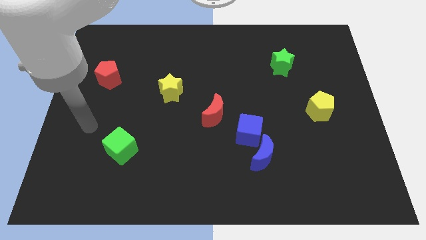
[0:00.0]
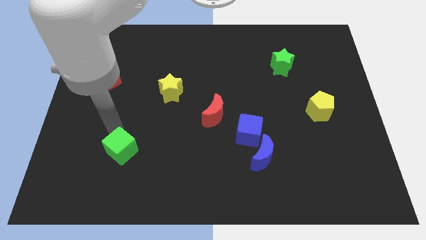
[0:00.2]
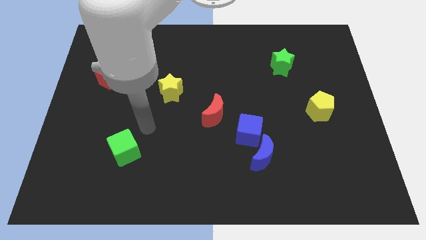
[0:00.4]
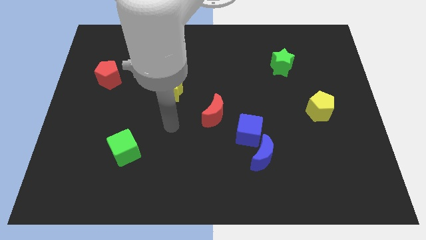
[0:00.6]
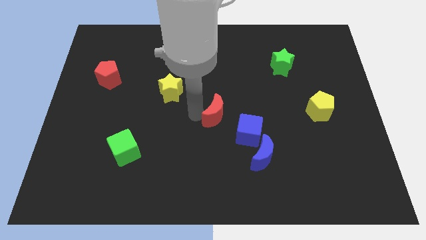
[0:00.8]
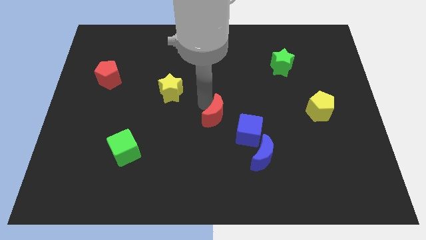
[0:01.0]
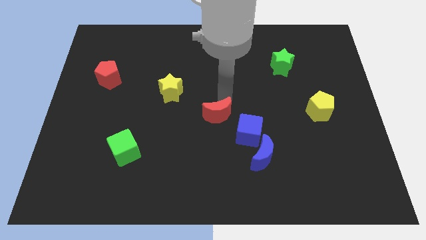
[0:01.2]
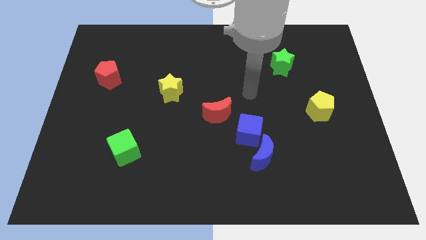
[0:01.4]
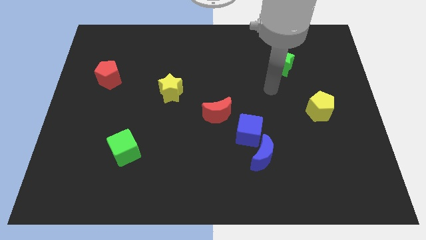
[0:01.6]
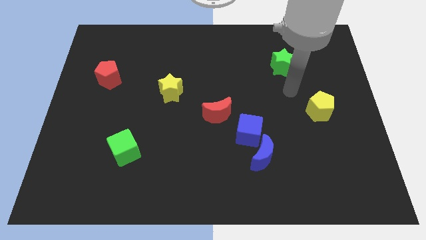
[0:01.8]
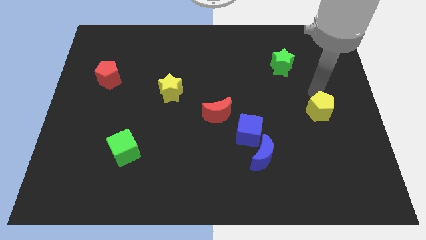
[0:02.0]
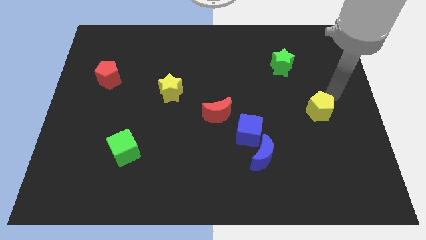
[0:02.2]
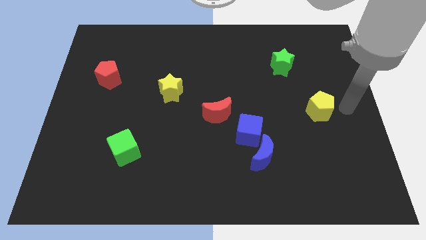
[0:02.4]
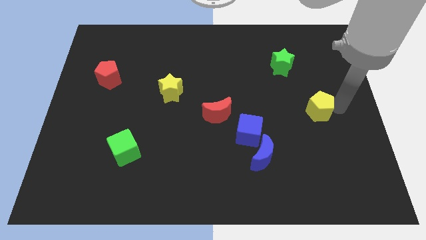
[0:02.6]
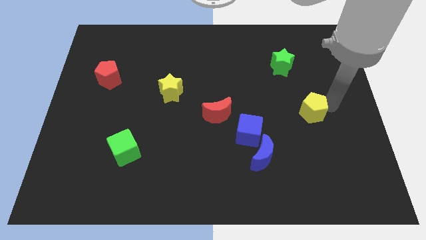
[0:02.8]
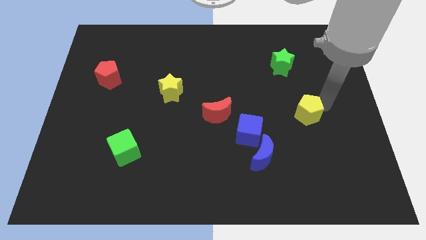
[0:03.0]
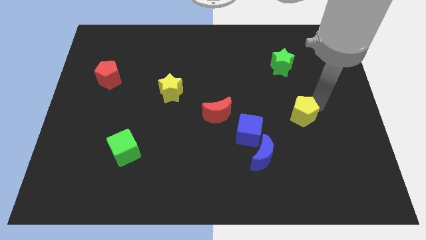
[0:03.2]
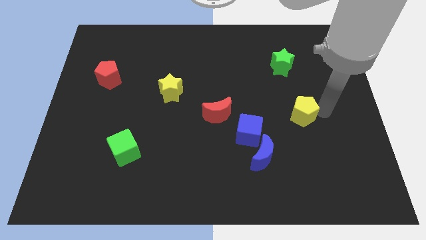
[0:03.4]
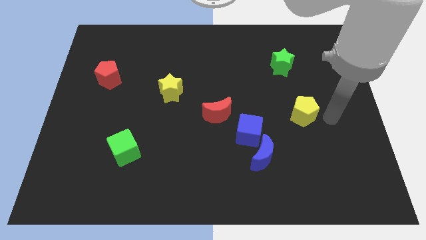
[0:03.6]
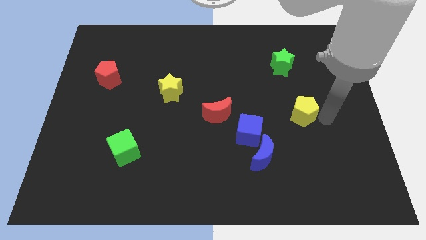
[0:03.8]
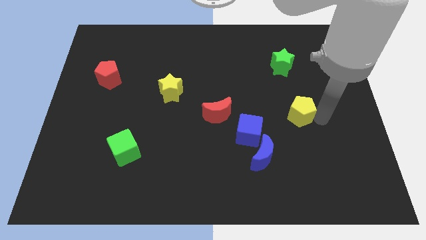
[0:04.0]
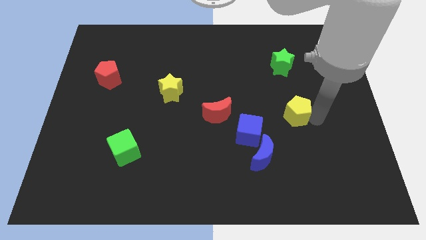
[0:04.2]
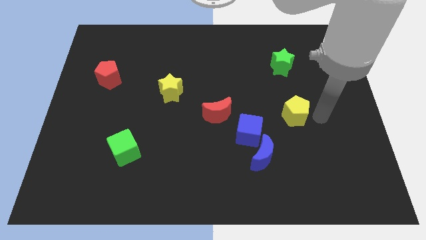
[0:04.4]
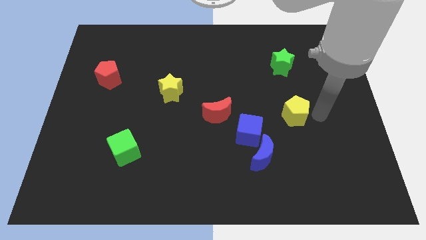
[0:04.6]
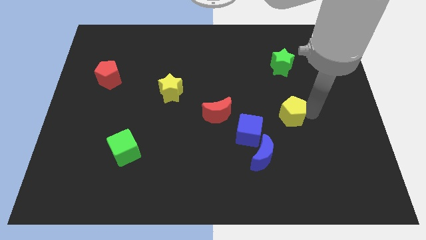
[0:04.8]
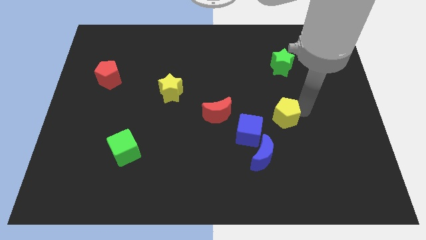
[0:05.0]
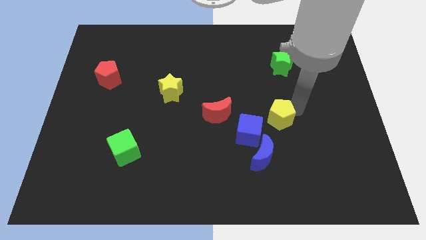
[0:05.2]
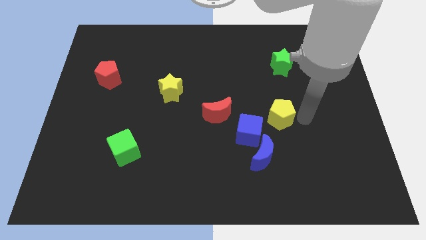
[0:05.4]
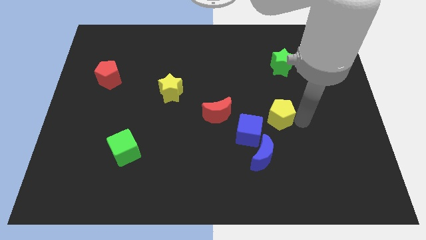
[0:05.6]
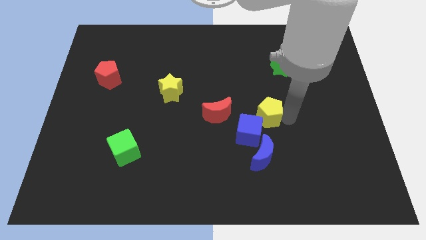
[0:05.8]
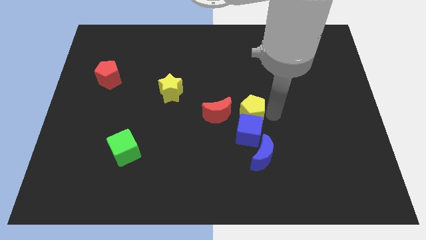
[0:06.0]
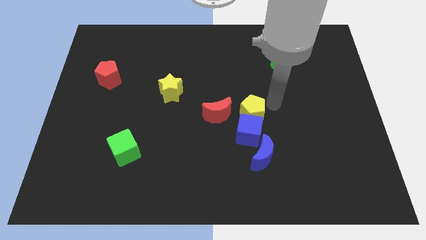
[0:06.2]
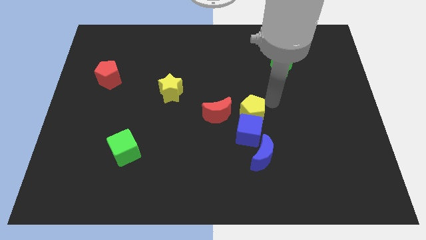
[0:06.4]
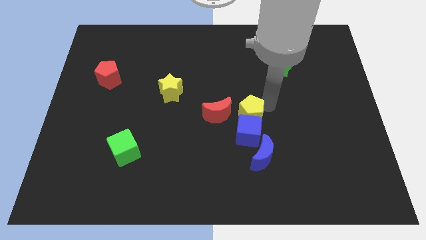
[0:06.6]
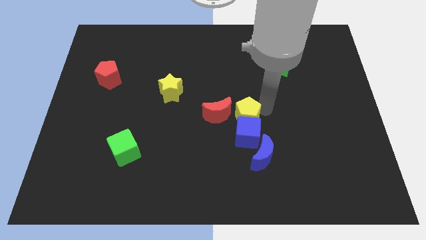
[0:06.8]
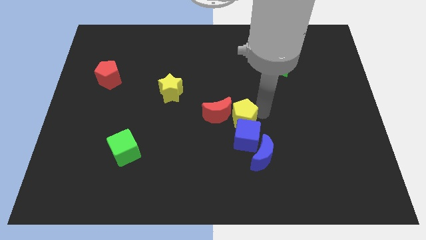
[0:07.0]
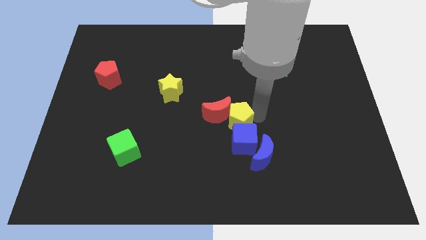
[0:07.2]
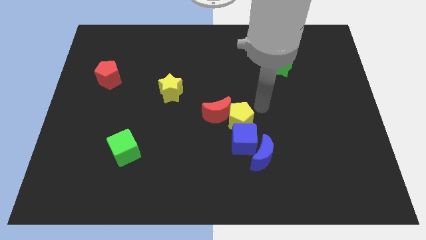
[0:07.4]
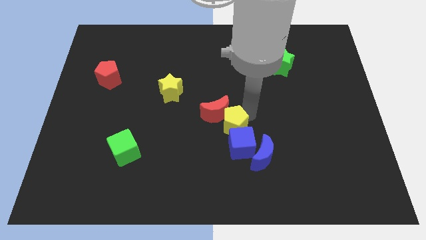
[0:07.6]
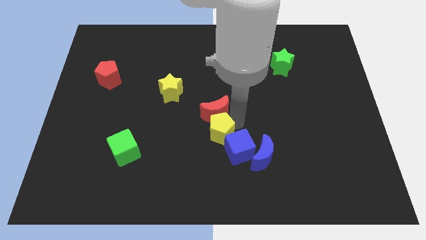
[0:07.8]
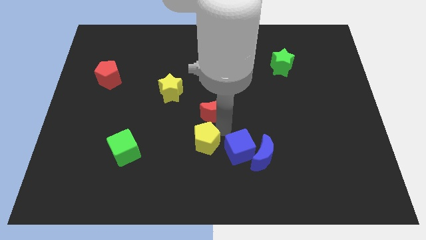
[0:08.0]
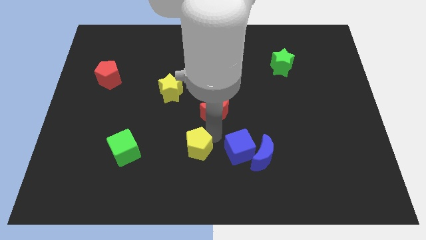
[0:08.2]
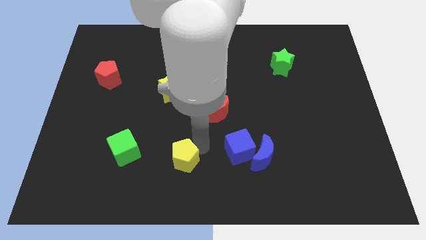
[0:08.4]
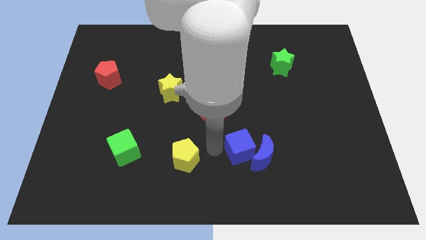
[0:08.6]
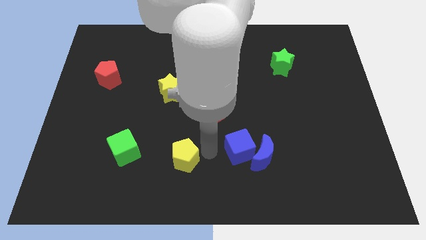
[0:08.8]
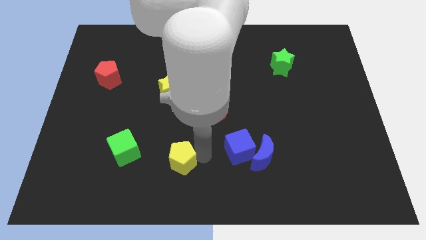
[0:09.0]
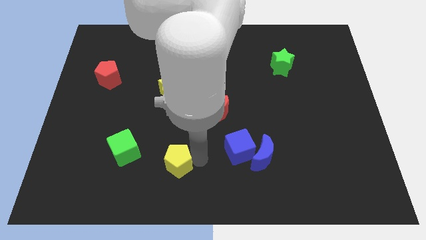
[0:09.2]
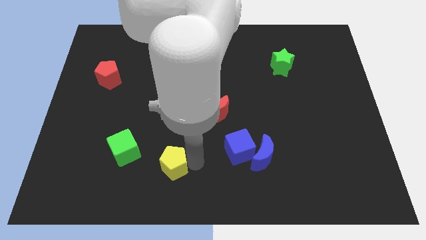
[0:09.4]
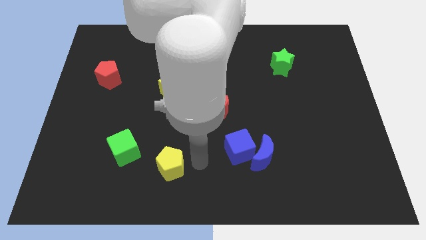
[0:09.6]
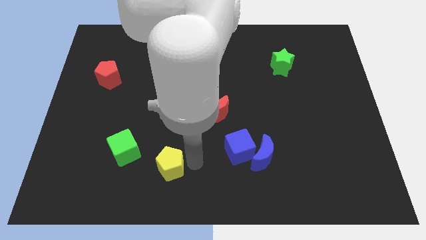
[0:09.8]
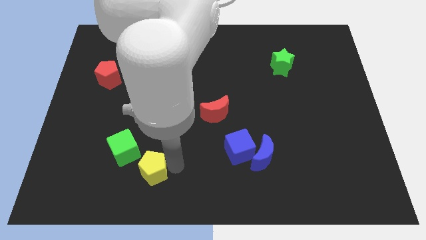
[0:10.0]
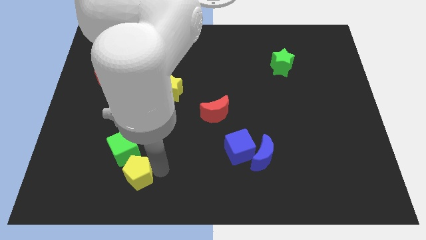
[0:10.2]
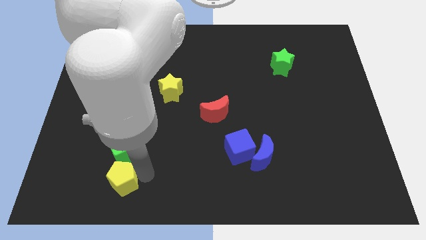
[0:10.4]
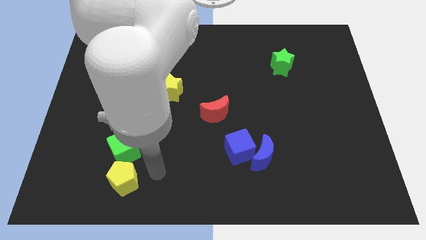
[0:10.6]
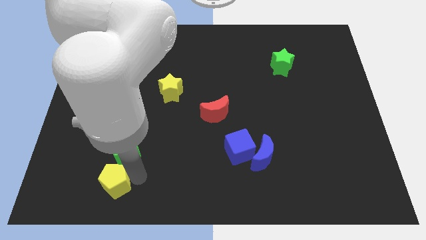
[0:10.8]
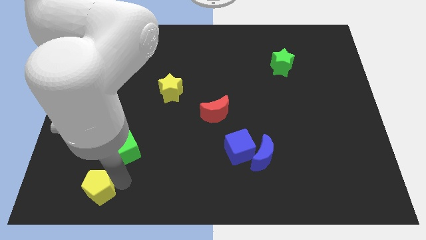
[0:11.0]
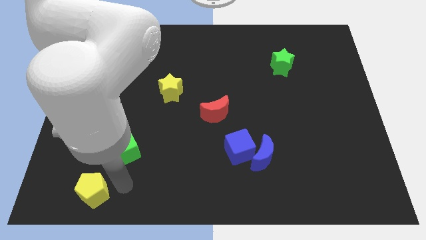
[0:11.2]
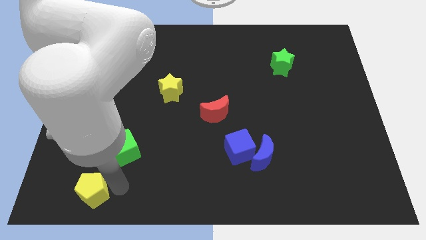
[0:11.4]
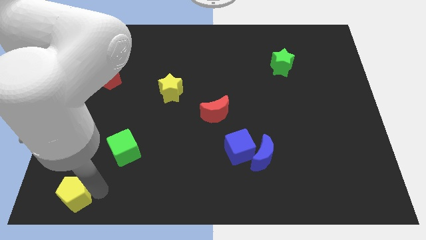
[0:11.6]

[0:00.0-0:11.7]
move the yellow pentagon to the lower left corner
